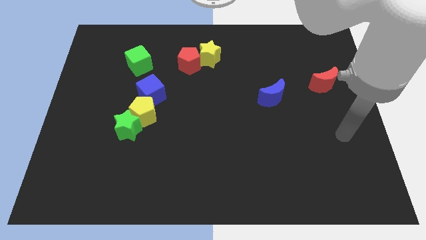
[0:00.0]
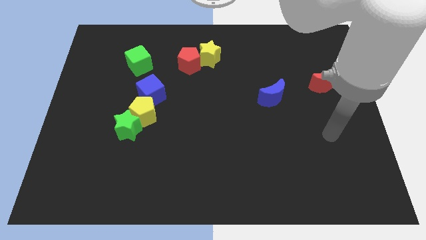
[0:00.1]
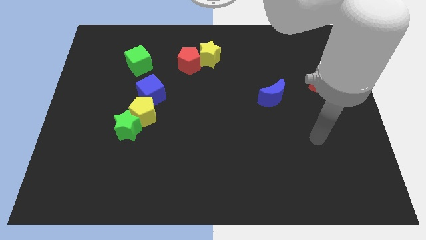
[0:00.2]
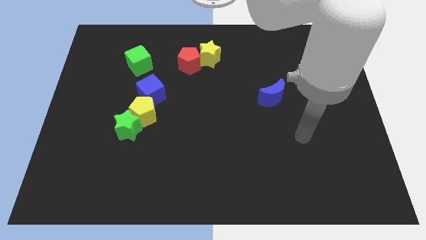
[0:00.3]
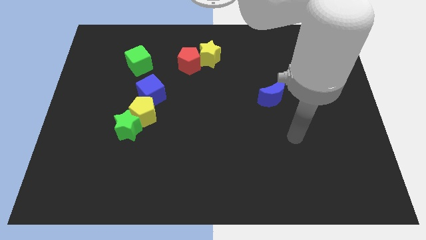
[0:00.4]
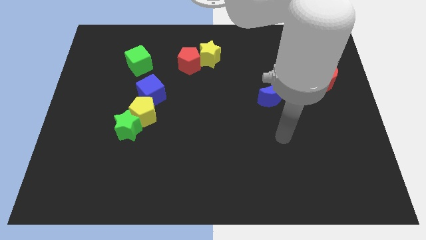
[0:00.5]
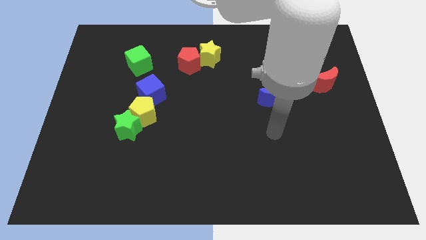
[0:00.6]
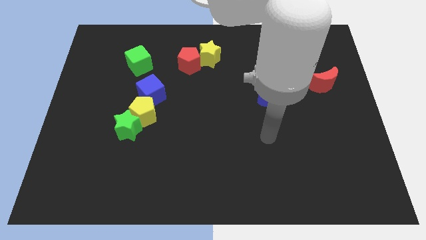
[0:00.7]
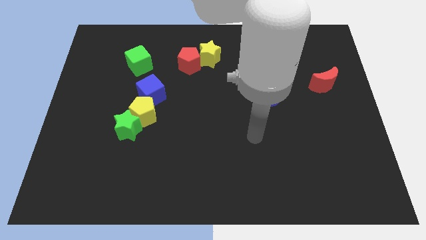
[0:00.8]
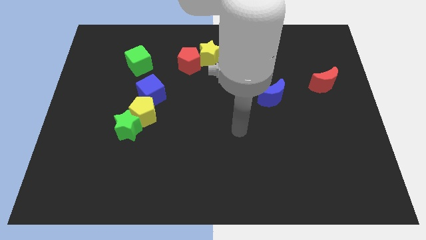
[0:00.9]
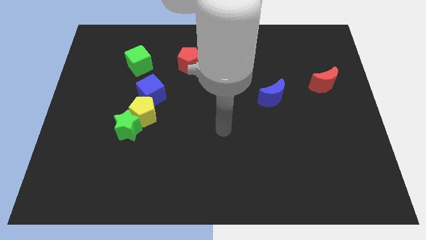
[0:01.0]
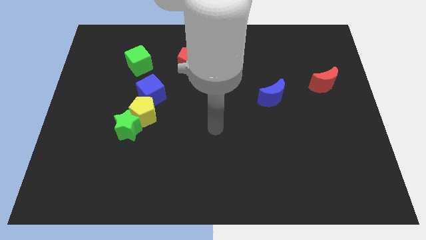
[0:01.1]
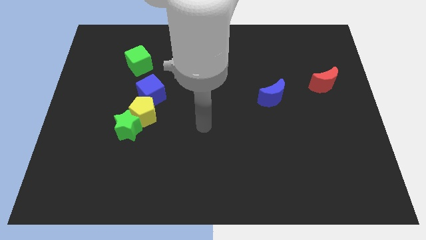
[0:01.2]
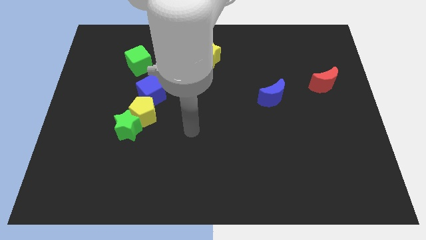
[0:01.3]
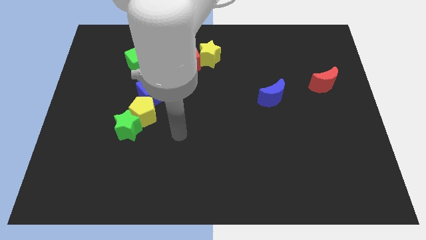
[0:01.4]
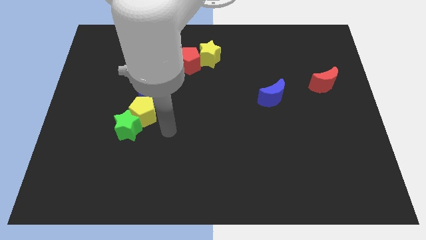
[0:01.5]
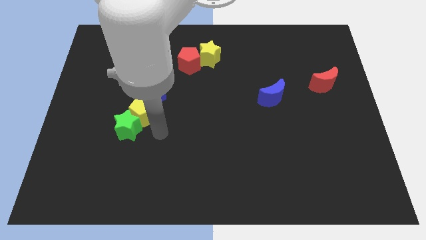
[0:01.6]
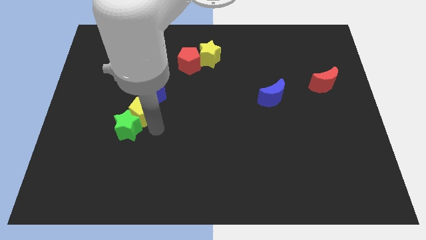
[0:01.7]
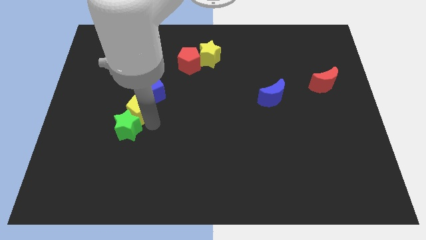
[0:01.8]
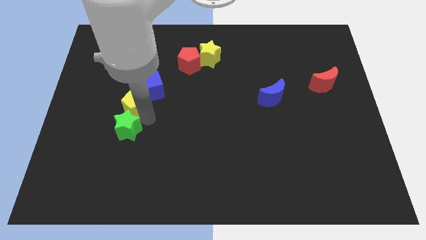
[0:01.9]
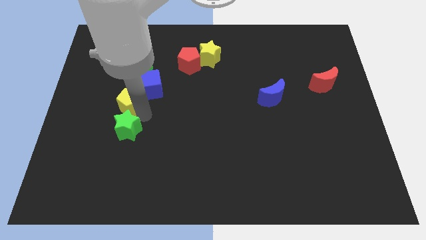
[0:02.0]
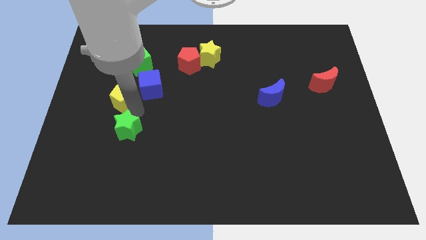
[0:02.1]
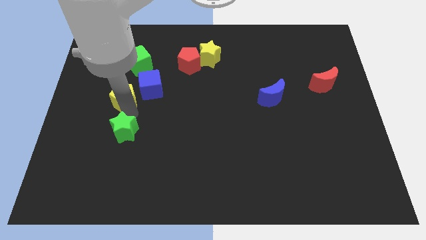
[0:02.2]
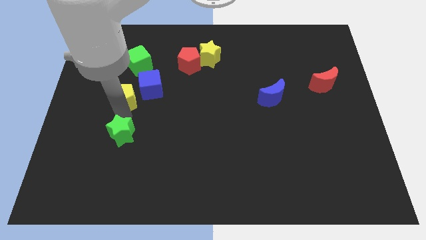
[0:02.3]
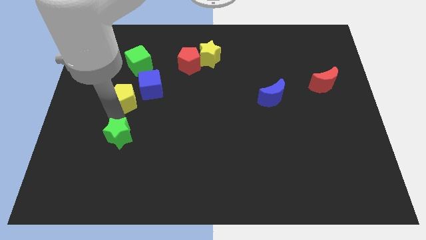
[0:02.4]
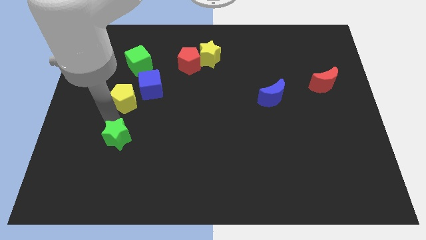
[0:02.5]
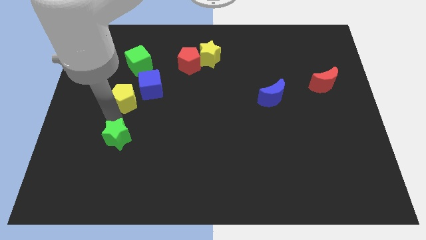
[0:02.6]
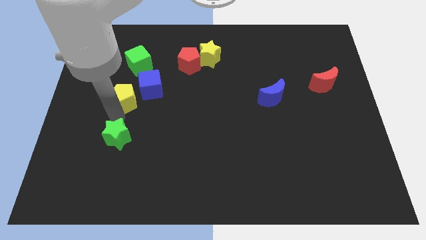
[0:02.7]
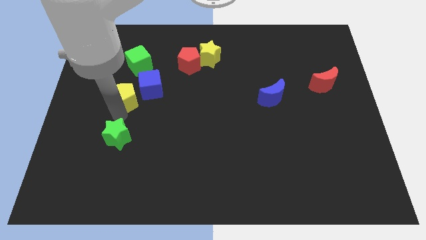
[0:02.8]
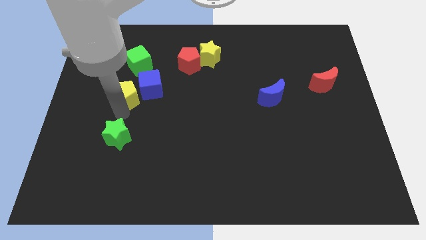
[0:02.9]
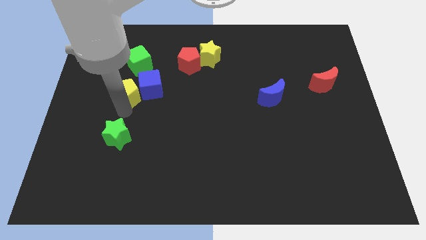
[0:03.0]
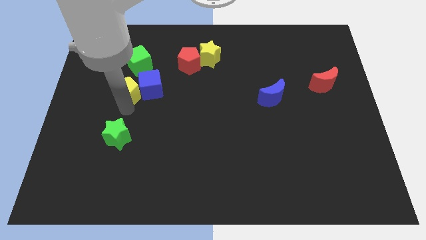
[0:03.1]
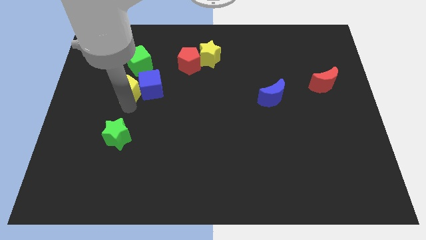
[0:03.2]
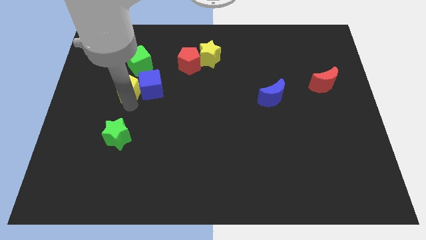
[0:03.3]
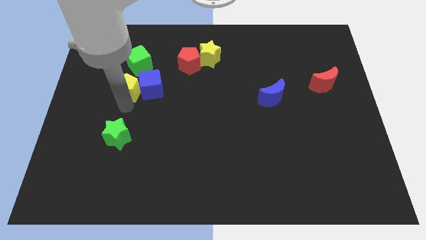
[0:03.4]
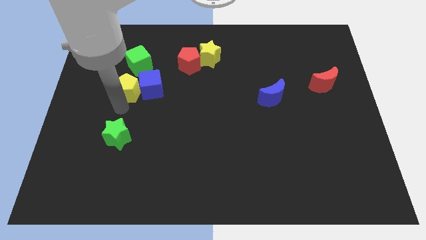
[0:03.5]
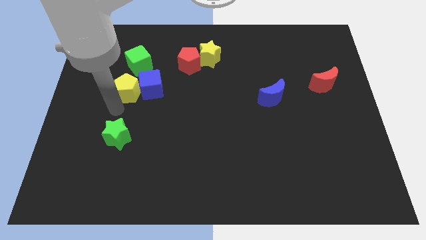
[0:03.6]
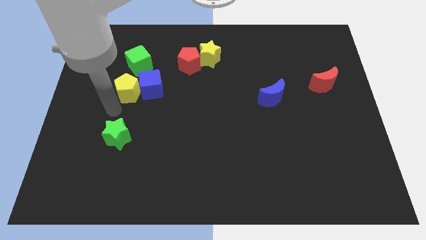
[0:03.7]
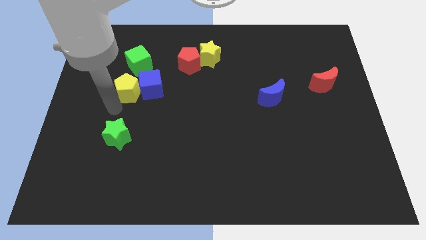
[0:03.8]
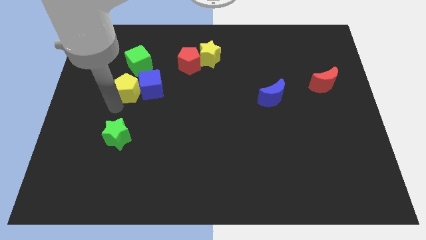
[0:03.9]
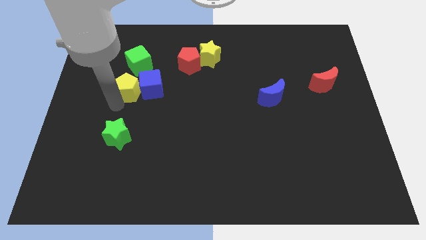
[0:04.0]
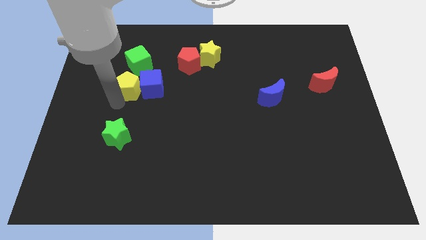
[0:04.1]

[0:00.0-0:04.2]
slightly push the yellow pentagon upwards

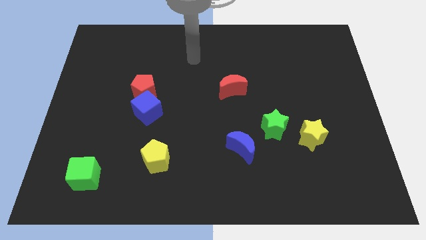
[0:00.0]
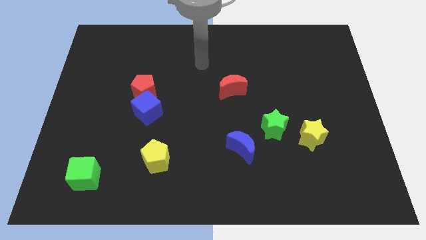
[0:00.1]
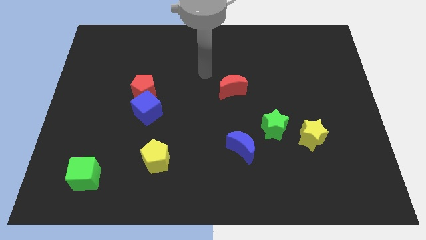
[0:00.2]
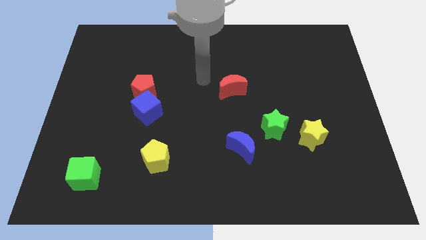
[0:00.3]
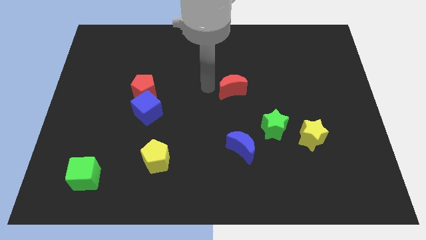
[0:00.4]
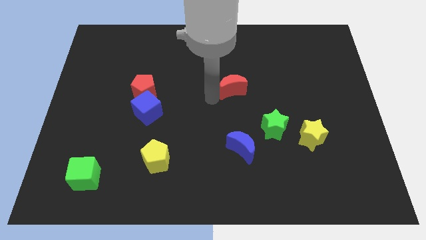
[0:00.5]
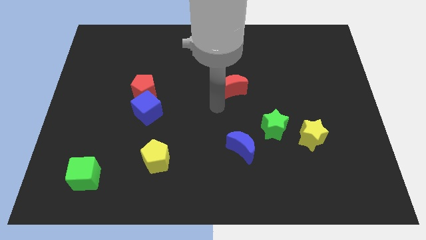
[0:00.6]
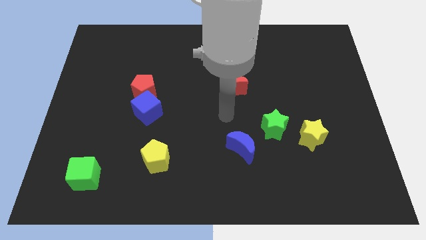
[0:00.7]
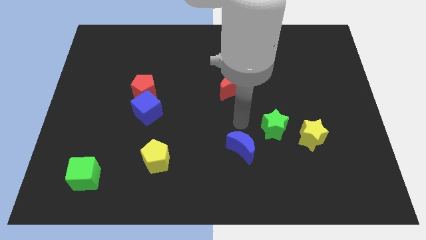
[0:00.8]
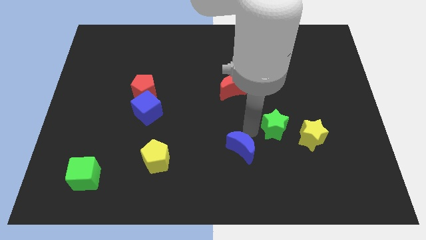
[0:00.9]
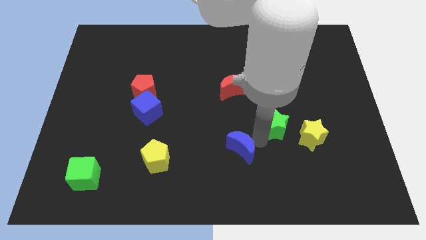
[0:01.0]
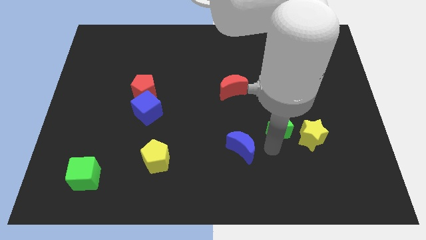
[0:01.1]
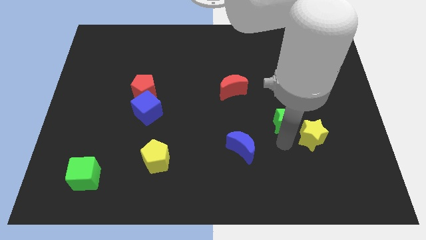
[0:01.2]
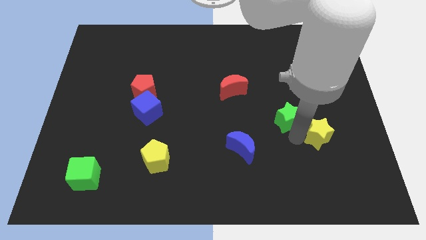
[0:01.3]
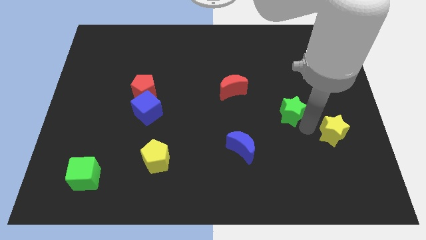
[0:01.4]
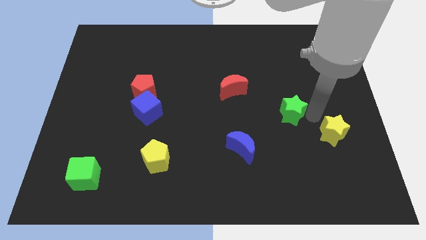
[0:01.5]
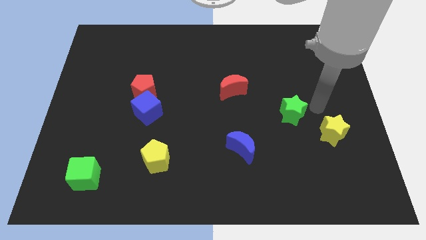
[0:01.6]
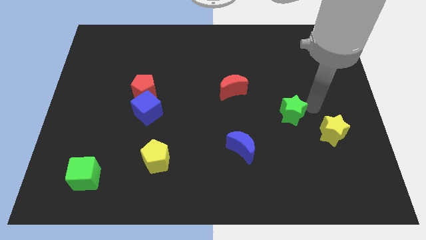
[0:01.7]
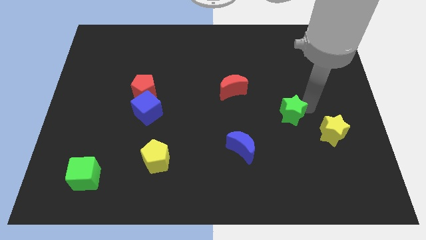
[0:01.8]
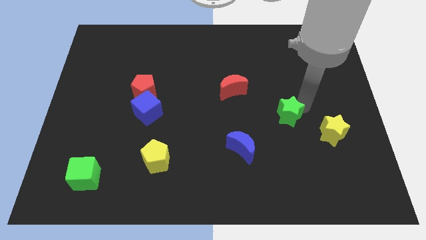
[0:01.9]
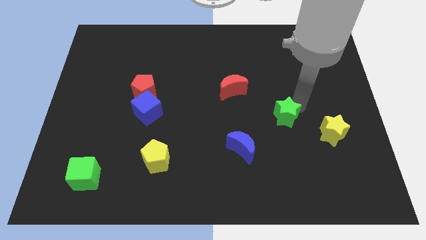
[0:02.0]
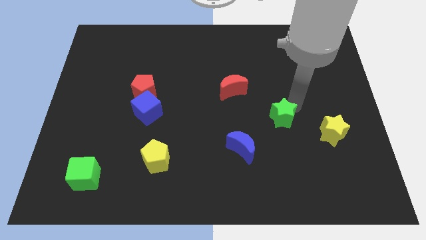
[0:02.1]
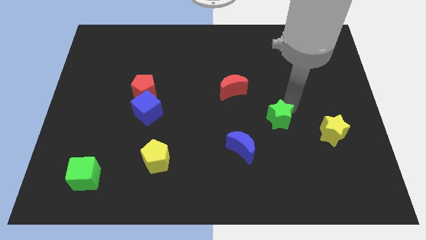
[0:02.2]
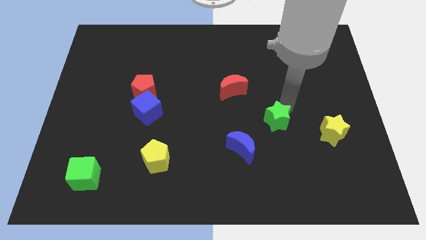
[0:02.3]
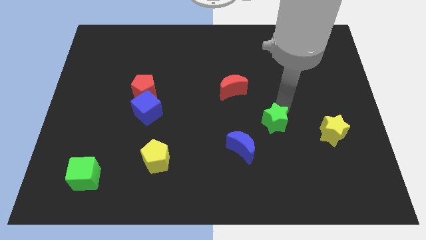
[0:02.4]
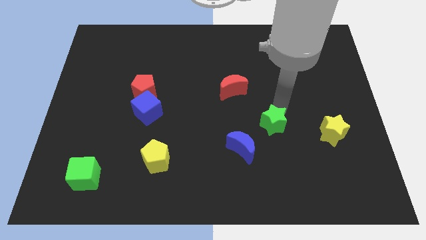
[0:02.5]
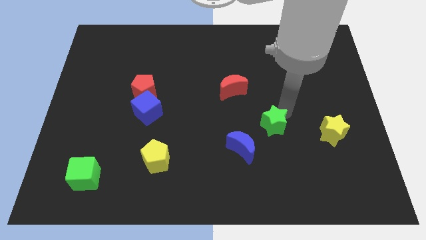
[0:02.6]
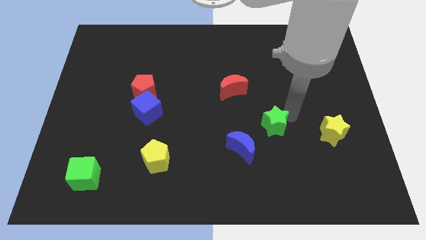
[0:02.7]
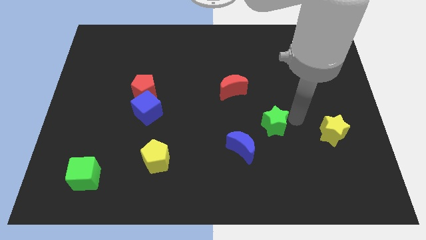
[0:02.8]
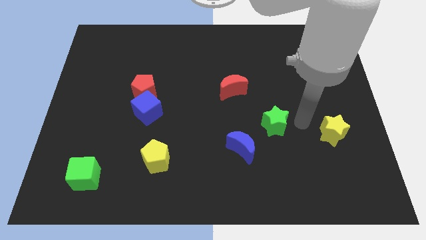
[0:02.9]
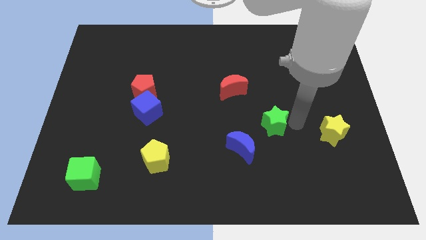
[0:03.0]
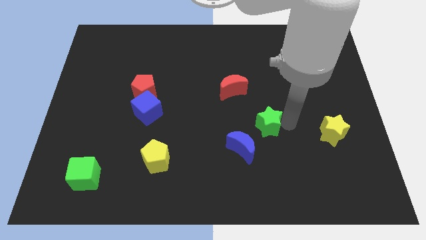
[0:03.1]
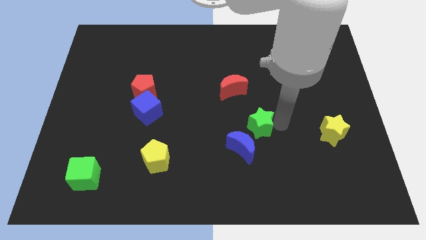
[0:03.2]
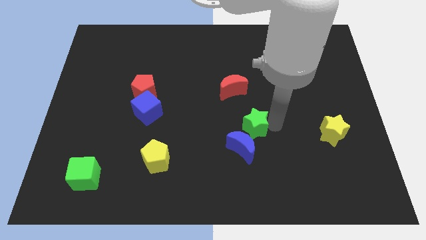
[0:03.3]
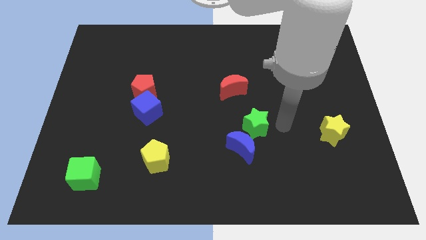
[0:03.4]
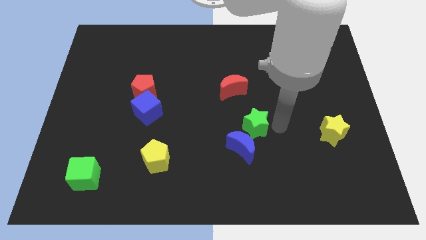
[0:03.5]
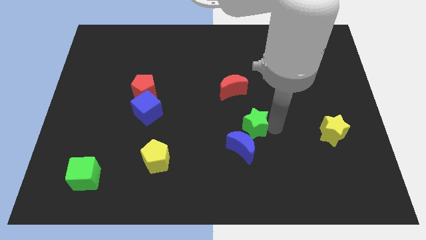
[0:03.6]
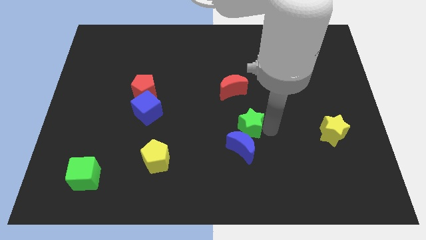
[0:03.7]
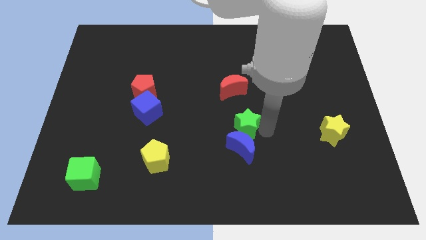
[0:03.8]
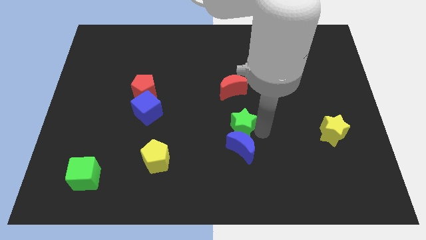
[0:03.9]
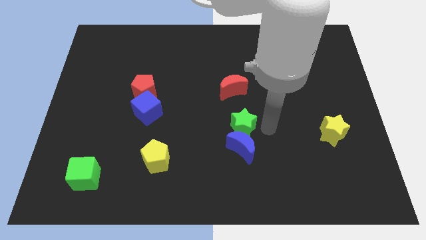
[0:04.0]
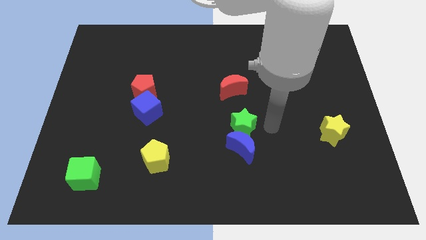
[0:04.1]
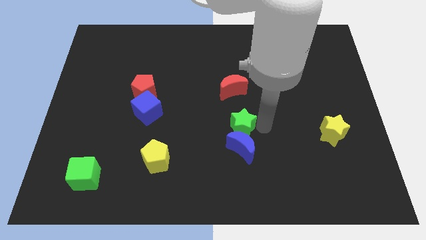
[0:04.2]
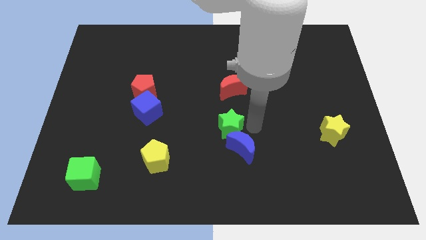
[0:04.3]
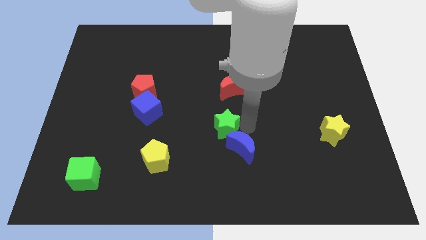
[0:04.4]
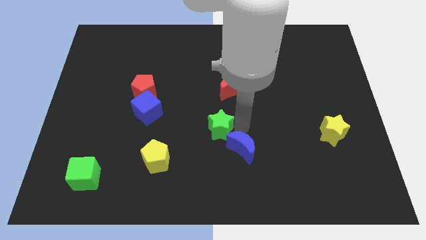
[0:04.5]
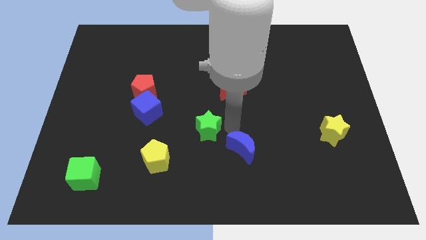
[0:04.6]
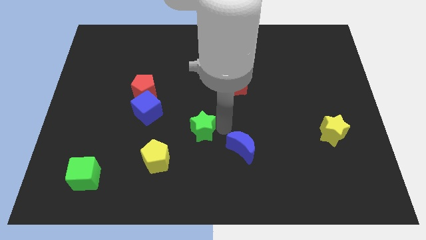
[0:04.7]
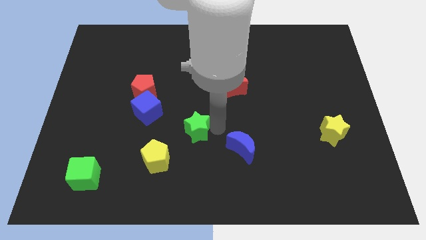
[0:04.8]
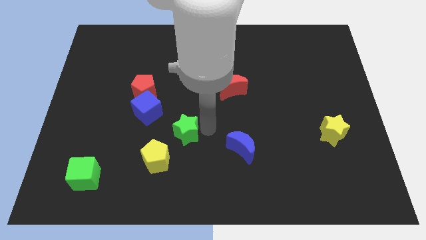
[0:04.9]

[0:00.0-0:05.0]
move the green star to the left
